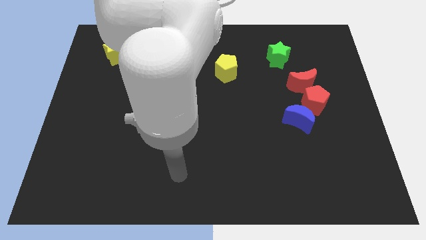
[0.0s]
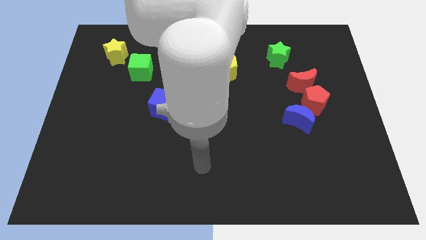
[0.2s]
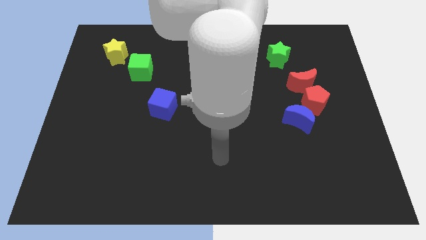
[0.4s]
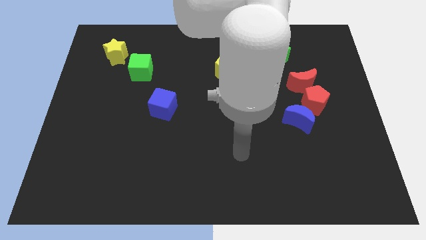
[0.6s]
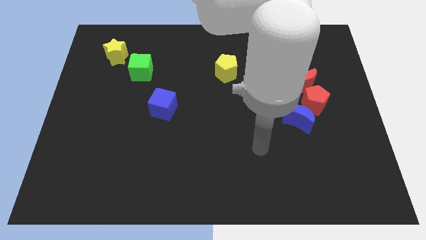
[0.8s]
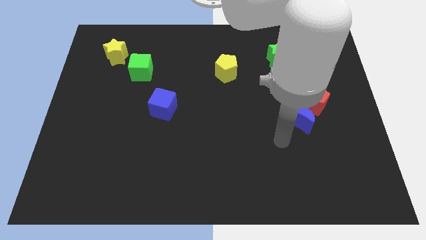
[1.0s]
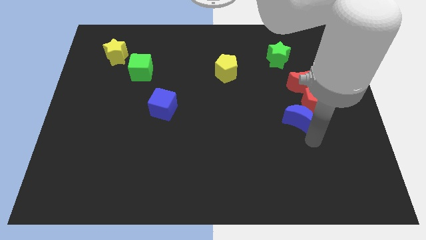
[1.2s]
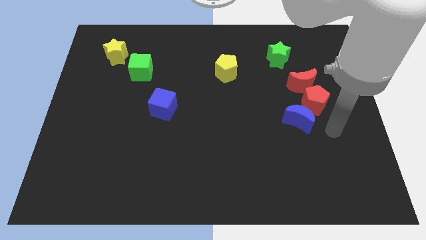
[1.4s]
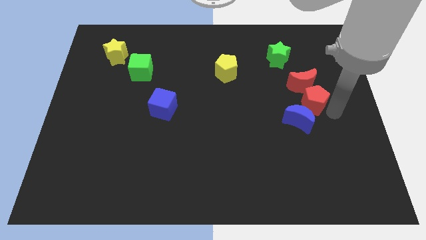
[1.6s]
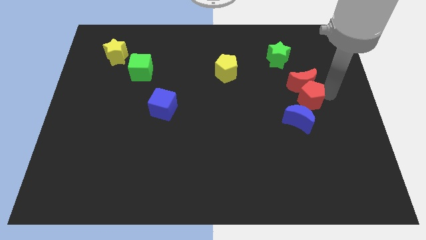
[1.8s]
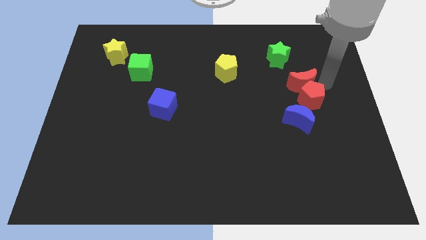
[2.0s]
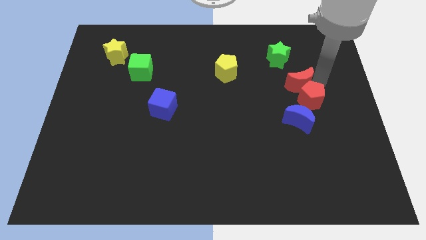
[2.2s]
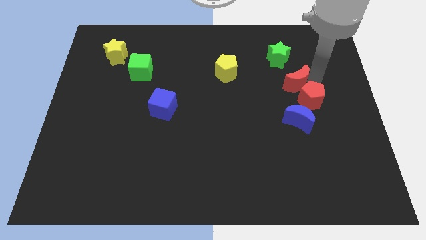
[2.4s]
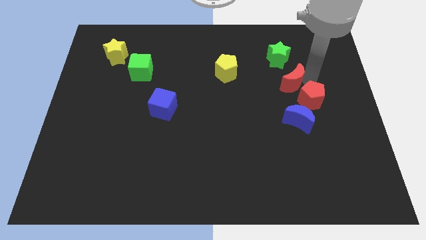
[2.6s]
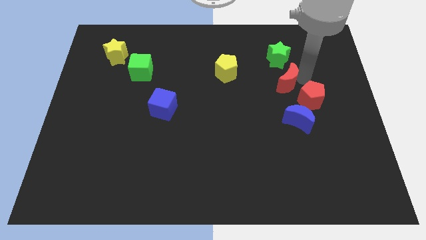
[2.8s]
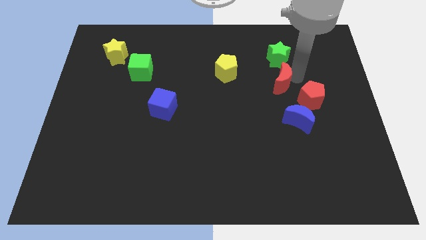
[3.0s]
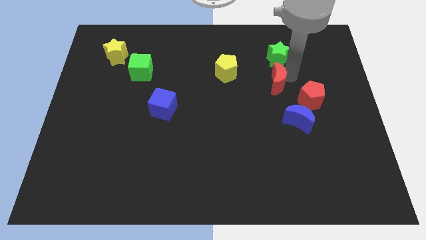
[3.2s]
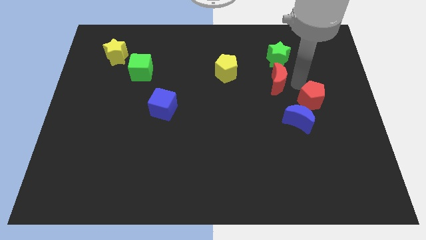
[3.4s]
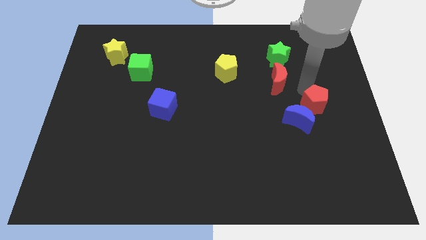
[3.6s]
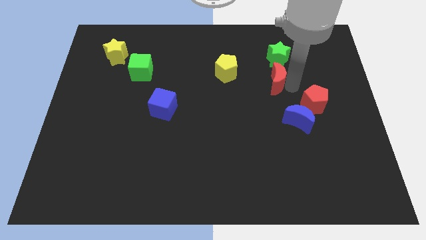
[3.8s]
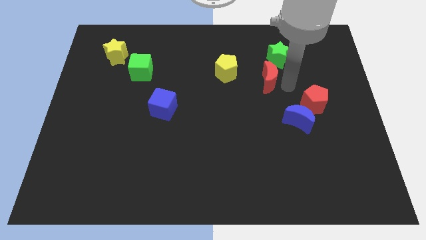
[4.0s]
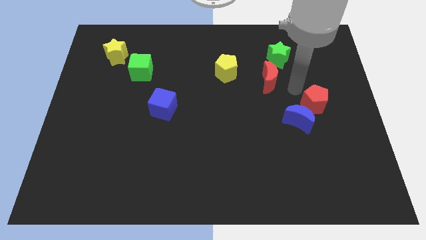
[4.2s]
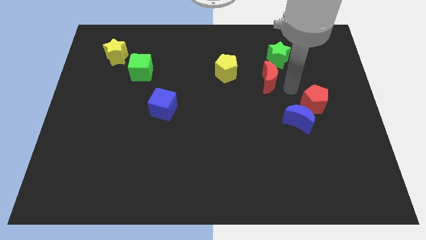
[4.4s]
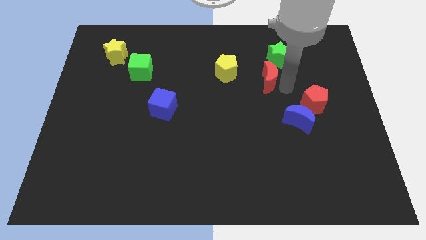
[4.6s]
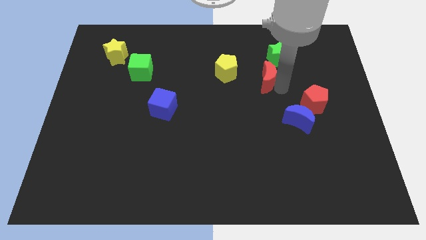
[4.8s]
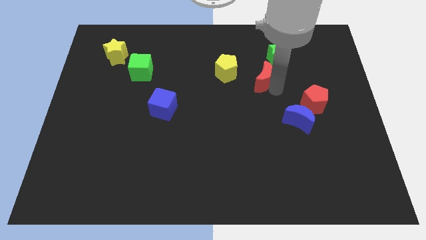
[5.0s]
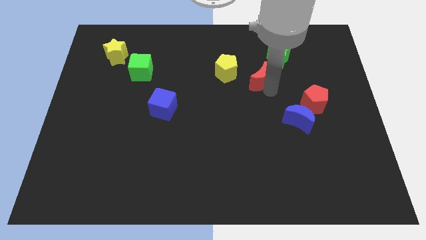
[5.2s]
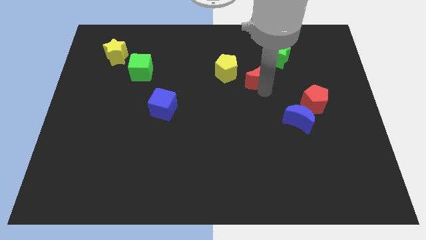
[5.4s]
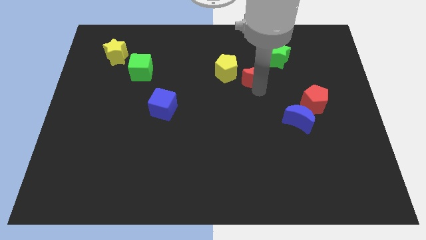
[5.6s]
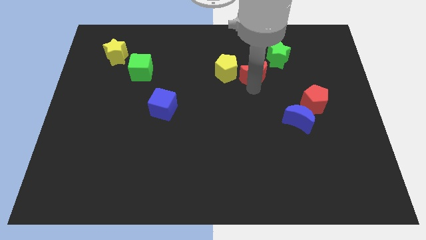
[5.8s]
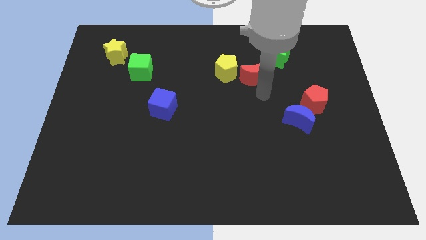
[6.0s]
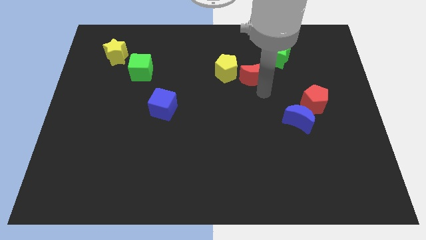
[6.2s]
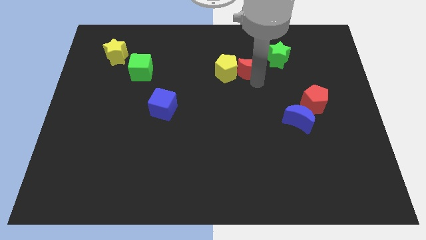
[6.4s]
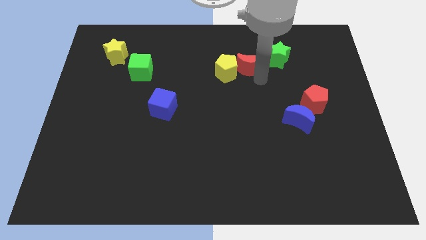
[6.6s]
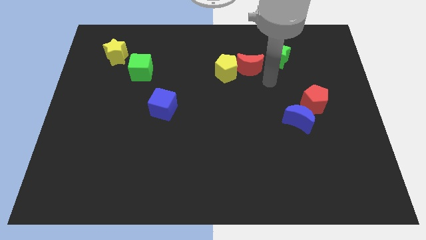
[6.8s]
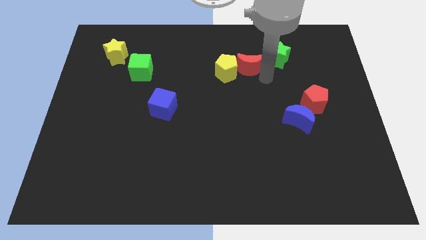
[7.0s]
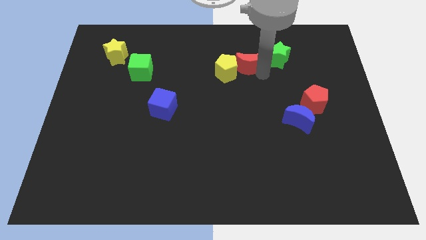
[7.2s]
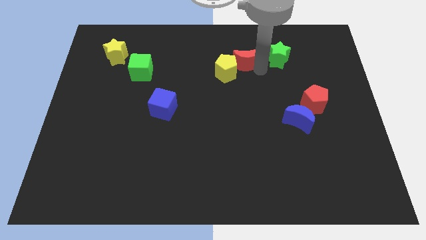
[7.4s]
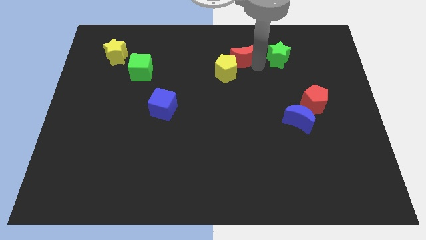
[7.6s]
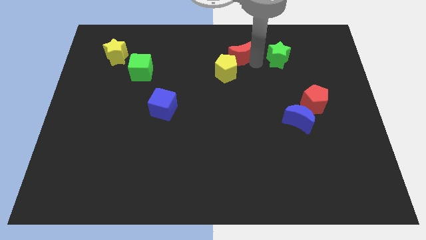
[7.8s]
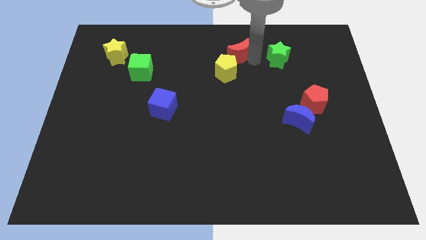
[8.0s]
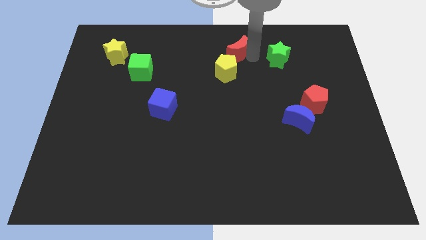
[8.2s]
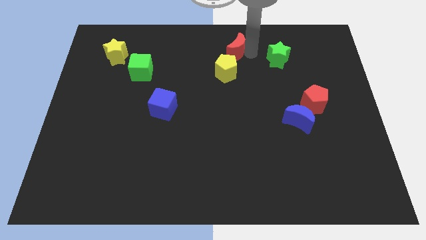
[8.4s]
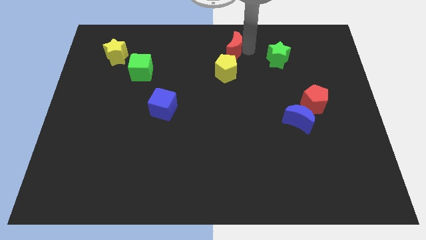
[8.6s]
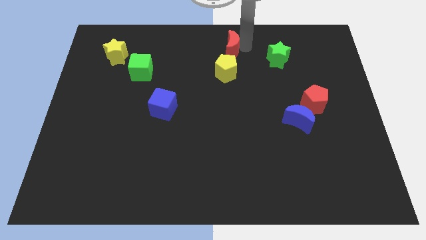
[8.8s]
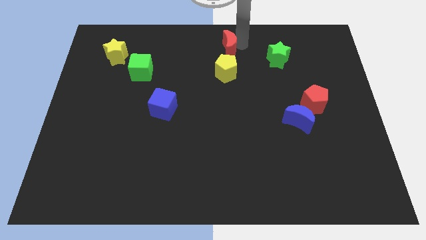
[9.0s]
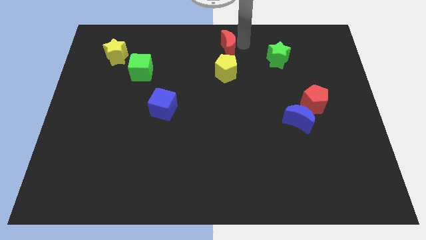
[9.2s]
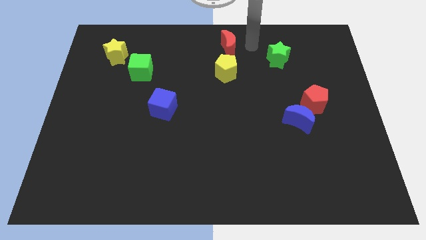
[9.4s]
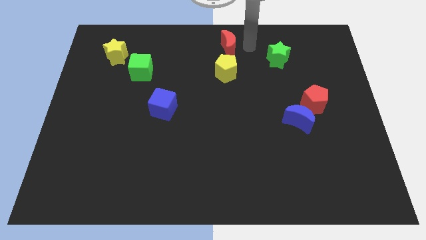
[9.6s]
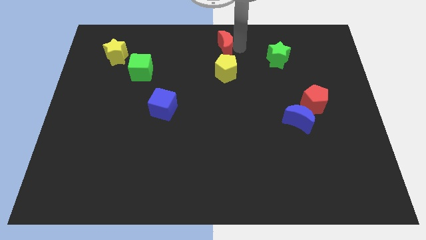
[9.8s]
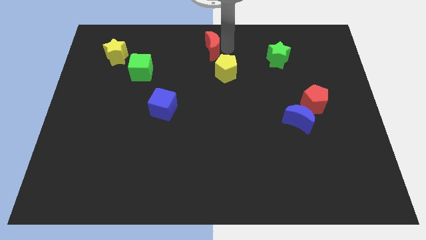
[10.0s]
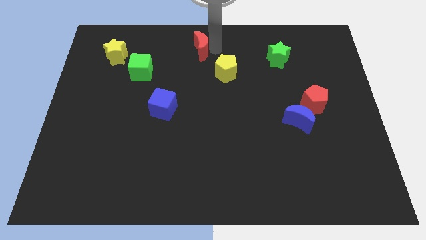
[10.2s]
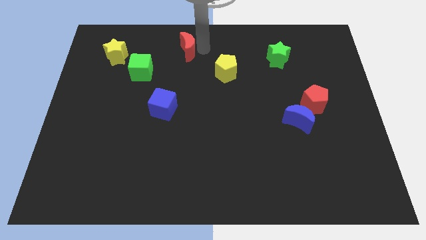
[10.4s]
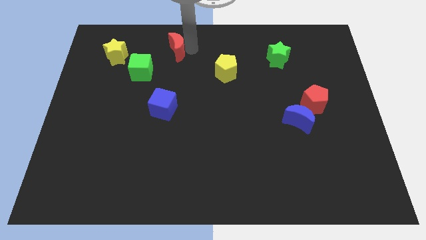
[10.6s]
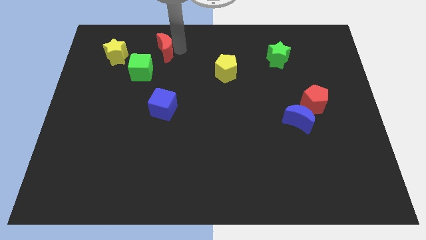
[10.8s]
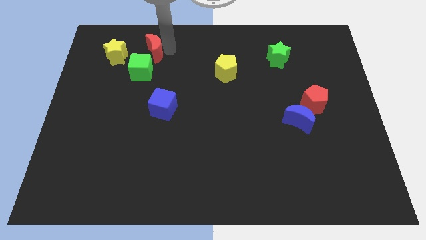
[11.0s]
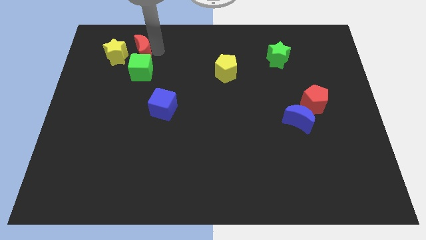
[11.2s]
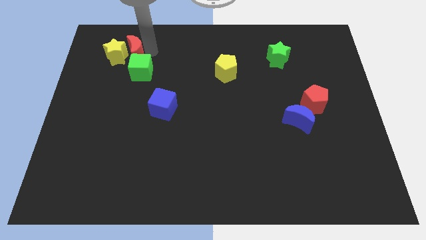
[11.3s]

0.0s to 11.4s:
put the red moon next to the yellow star

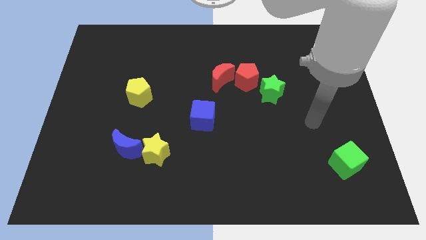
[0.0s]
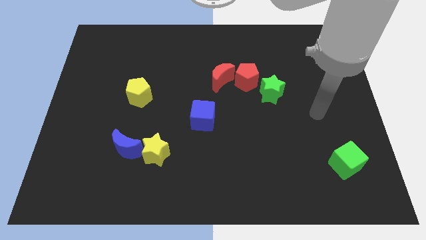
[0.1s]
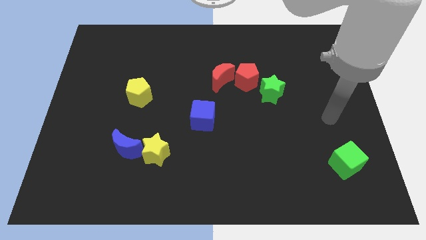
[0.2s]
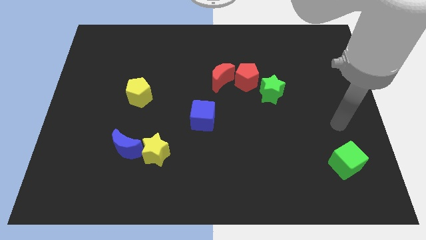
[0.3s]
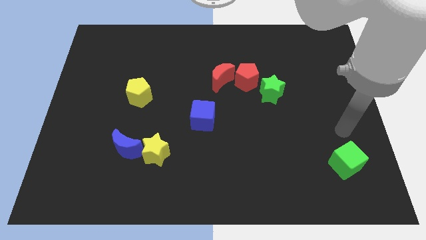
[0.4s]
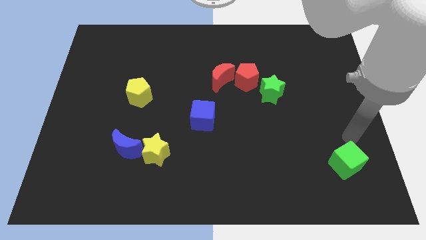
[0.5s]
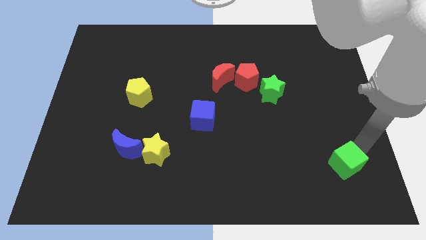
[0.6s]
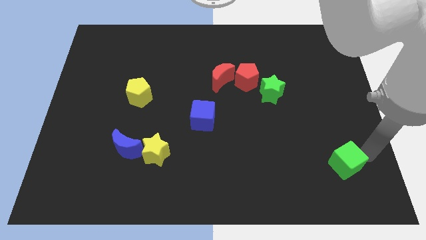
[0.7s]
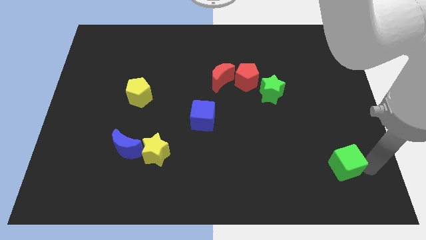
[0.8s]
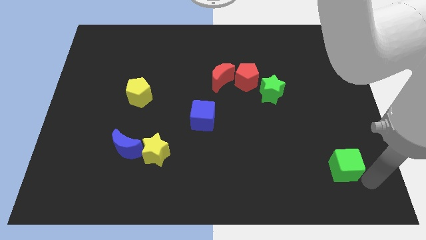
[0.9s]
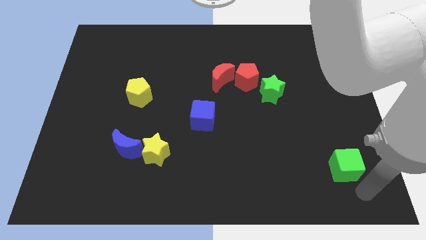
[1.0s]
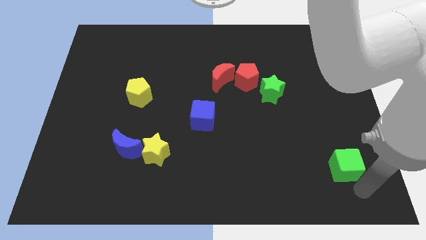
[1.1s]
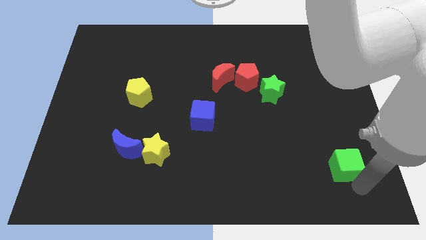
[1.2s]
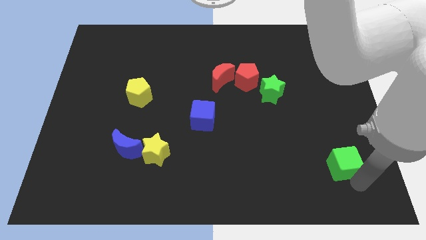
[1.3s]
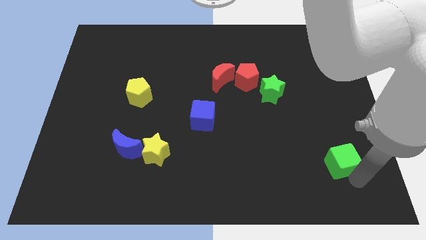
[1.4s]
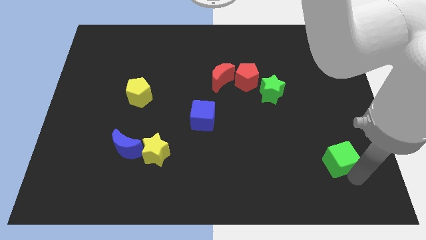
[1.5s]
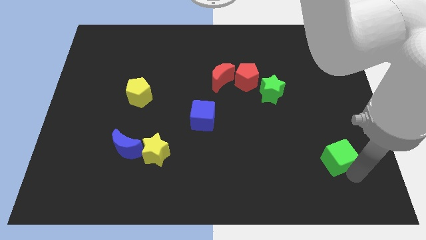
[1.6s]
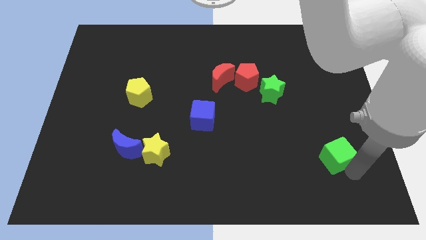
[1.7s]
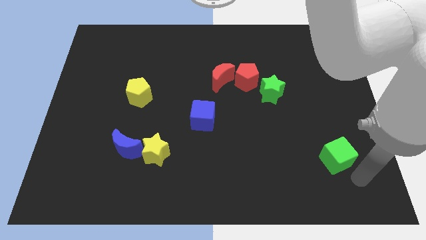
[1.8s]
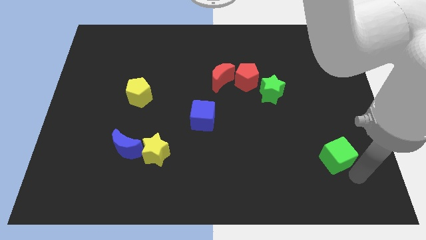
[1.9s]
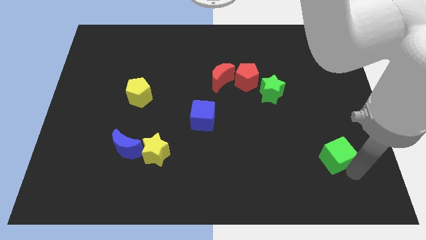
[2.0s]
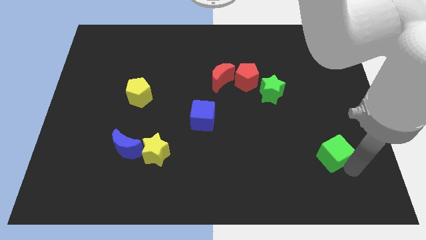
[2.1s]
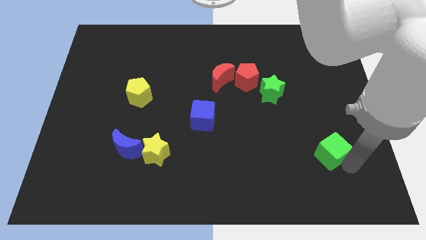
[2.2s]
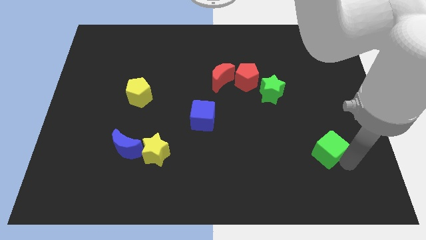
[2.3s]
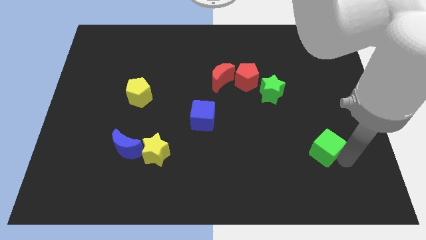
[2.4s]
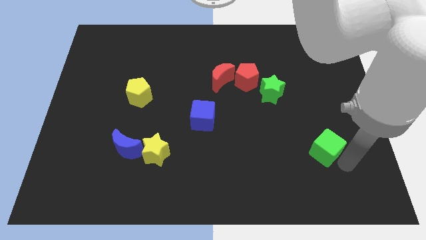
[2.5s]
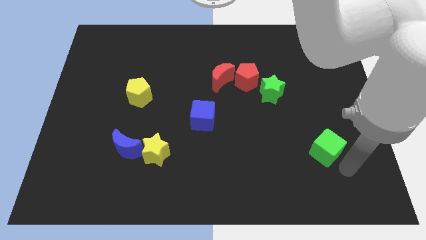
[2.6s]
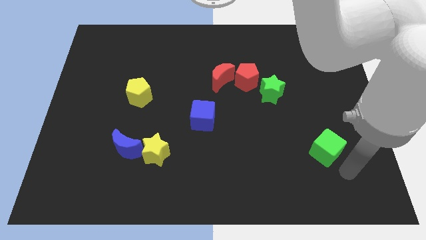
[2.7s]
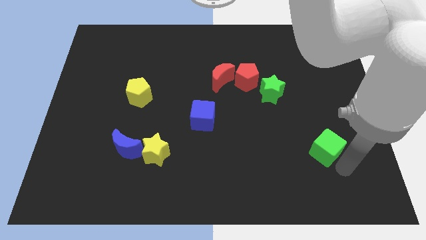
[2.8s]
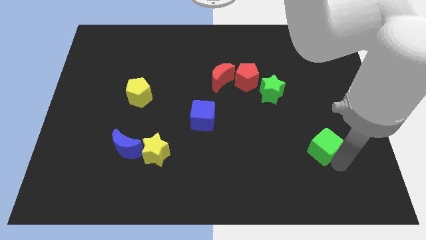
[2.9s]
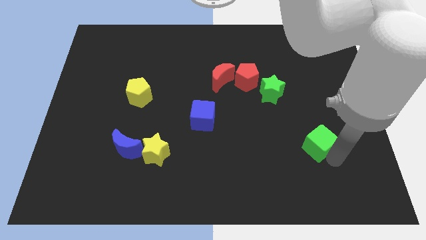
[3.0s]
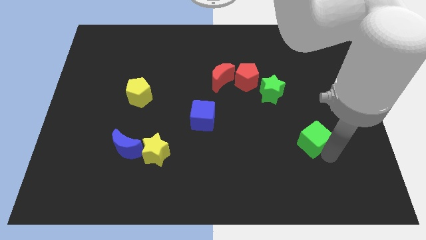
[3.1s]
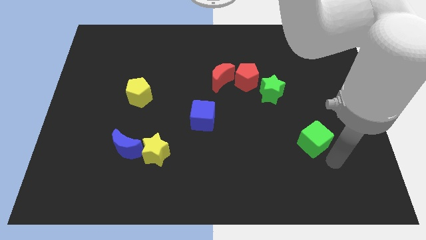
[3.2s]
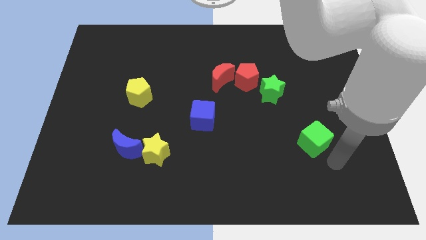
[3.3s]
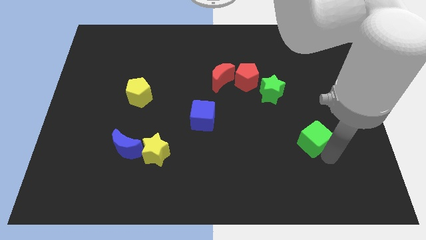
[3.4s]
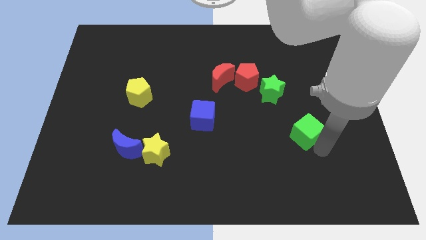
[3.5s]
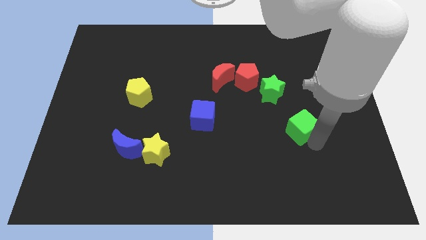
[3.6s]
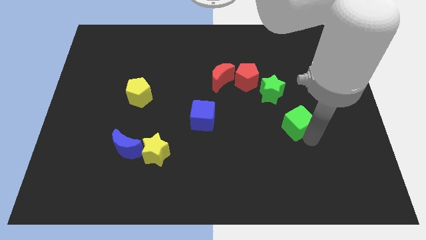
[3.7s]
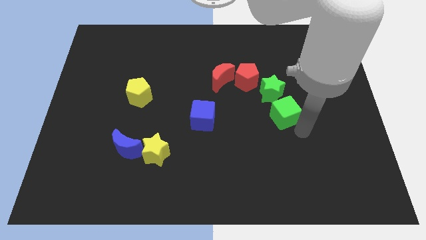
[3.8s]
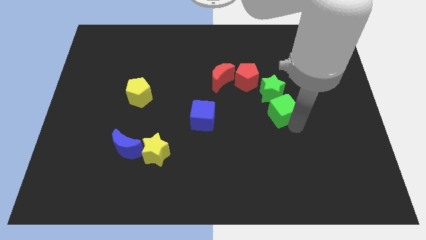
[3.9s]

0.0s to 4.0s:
put the green cube to the green star
